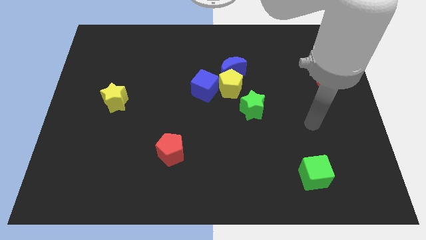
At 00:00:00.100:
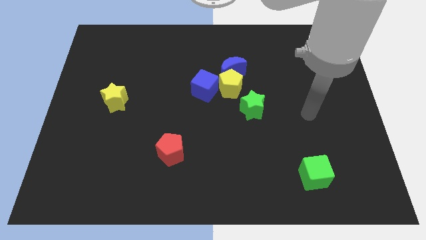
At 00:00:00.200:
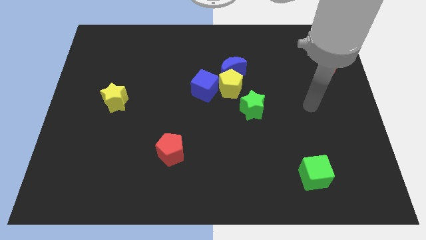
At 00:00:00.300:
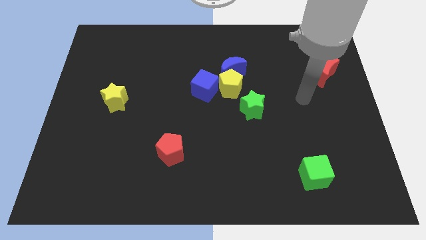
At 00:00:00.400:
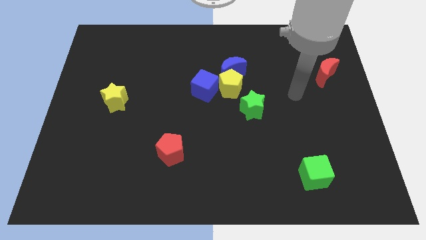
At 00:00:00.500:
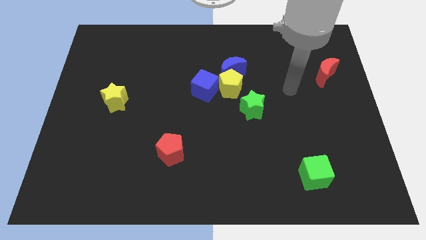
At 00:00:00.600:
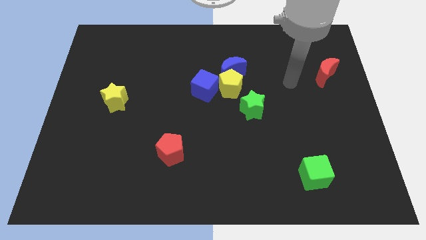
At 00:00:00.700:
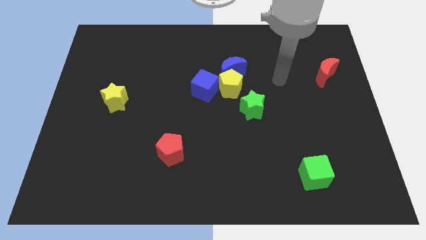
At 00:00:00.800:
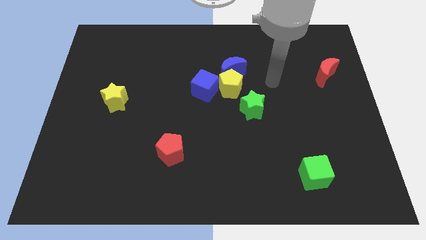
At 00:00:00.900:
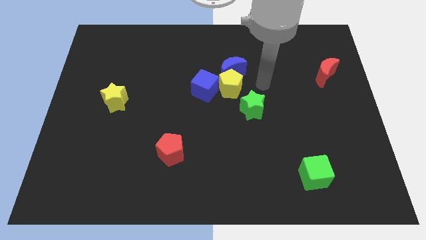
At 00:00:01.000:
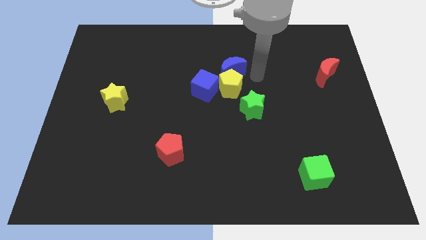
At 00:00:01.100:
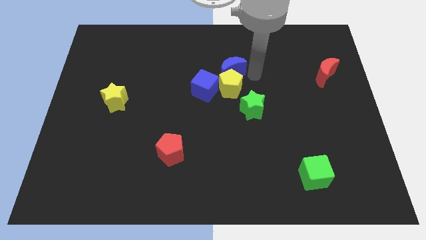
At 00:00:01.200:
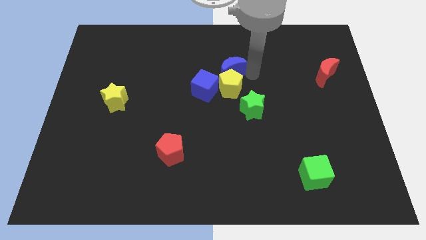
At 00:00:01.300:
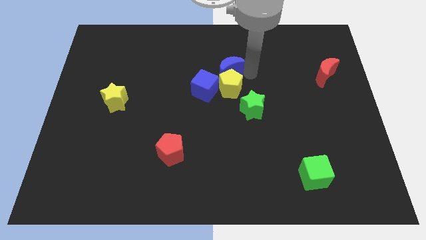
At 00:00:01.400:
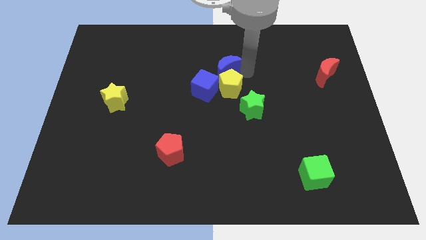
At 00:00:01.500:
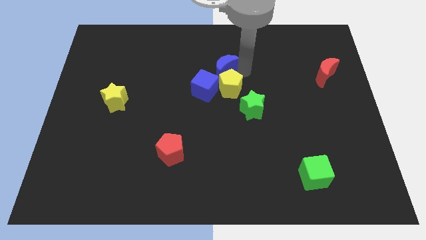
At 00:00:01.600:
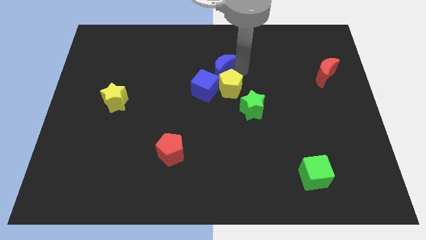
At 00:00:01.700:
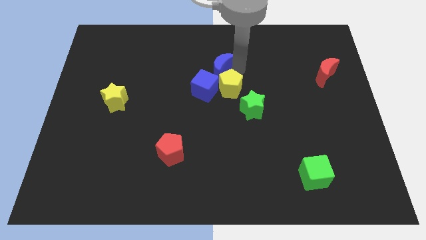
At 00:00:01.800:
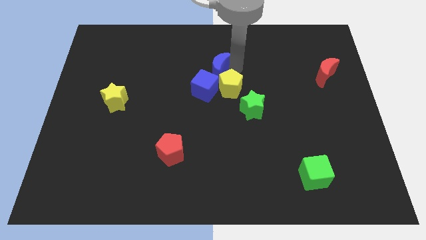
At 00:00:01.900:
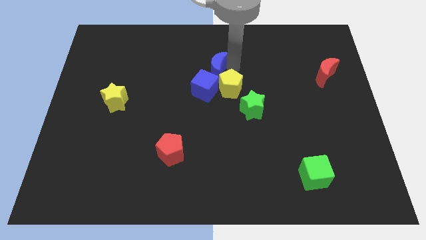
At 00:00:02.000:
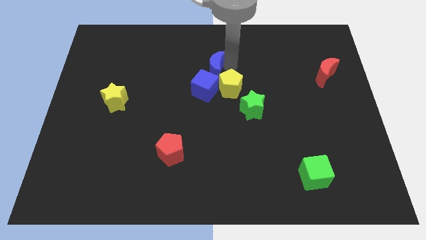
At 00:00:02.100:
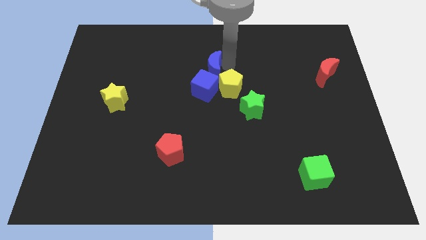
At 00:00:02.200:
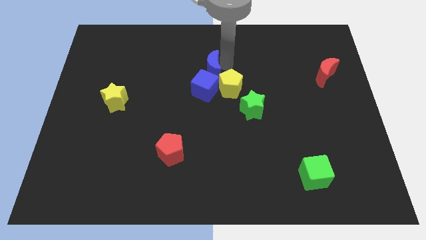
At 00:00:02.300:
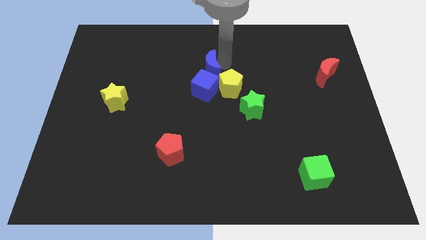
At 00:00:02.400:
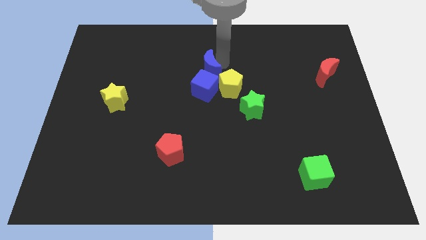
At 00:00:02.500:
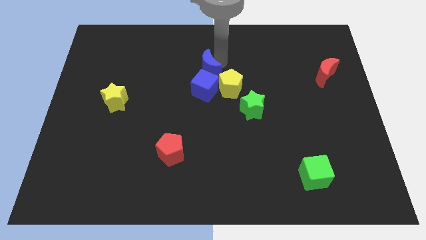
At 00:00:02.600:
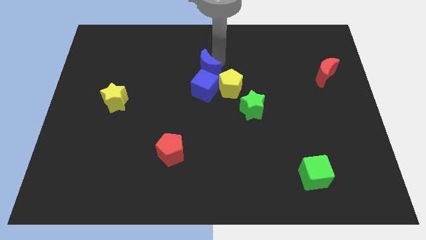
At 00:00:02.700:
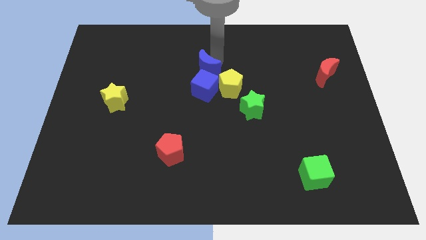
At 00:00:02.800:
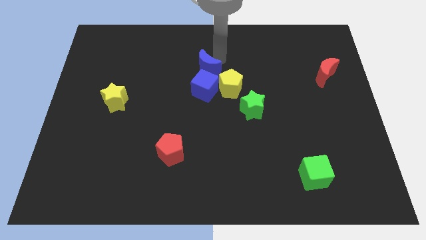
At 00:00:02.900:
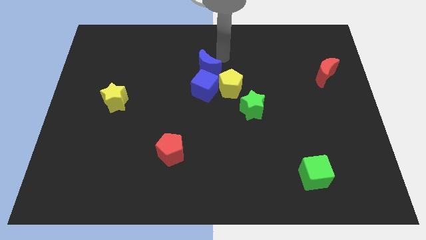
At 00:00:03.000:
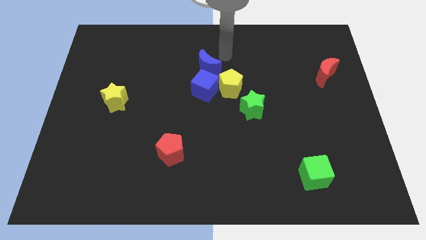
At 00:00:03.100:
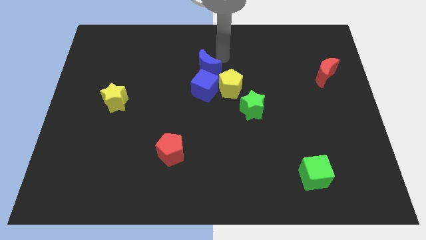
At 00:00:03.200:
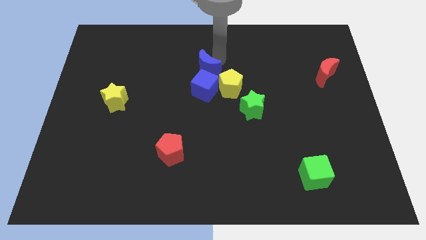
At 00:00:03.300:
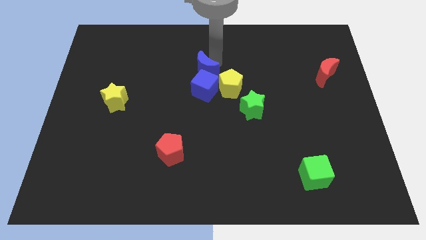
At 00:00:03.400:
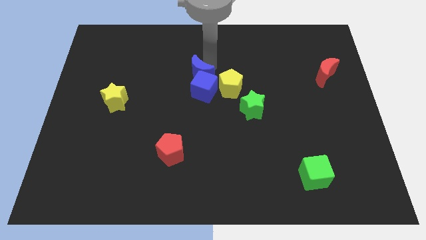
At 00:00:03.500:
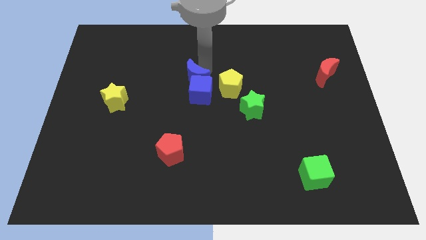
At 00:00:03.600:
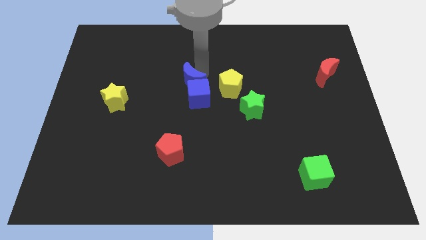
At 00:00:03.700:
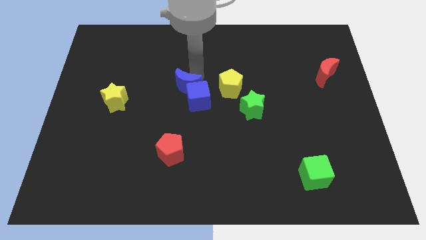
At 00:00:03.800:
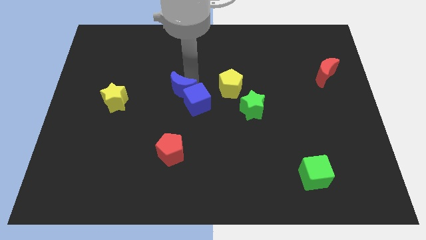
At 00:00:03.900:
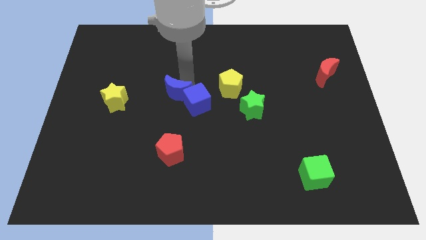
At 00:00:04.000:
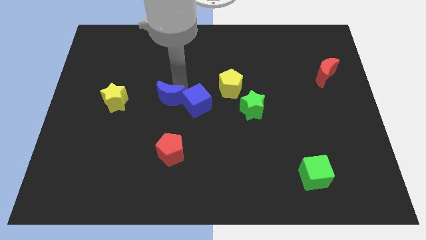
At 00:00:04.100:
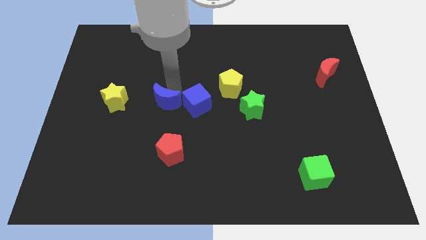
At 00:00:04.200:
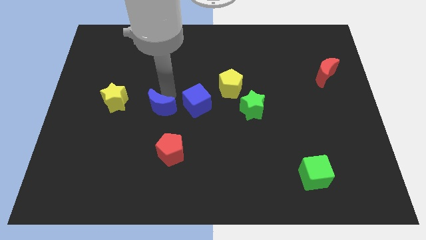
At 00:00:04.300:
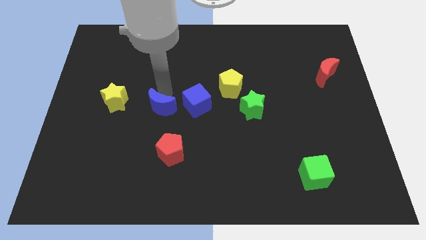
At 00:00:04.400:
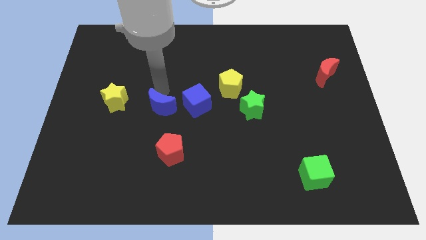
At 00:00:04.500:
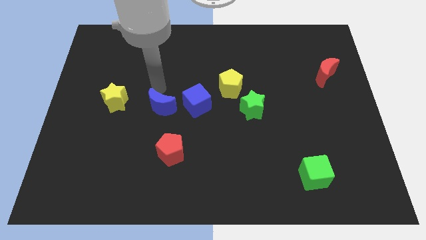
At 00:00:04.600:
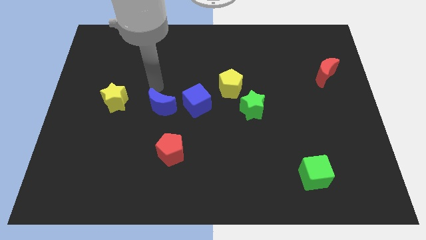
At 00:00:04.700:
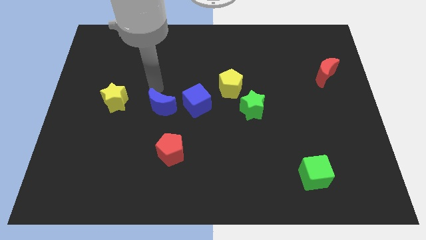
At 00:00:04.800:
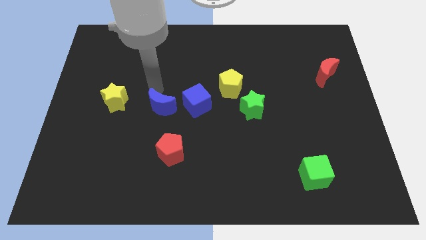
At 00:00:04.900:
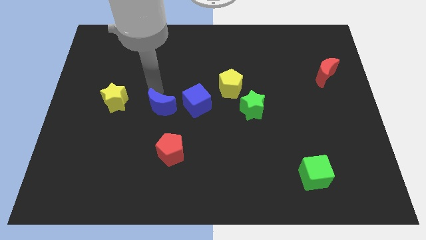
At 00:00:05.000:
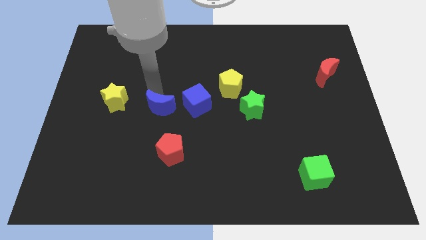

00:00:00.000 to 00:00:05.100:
move the blue moon down and left diagonally

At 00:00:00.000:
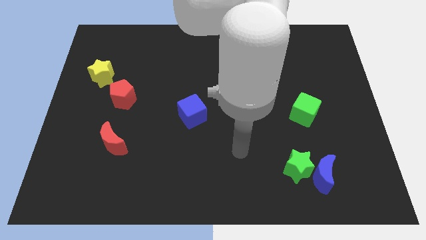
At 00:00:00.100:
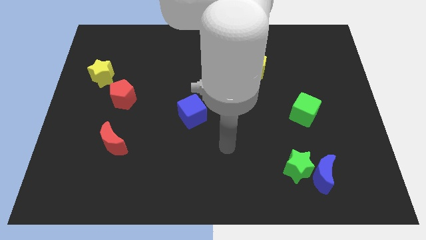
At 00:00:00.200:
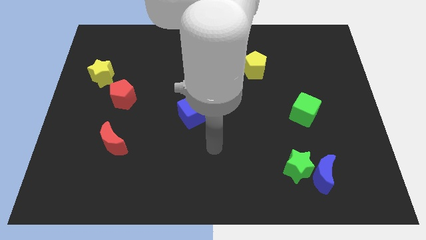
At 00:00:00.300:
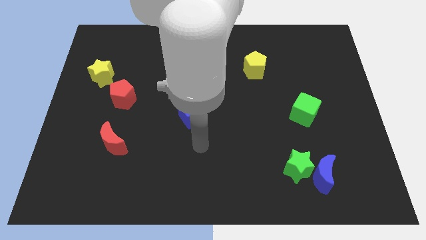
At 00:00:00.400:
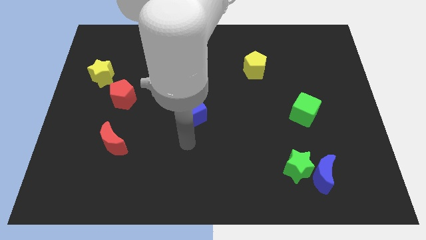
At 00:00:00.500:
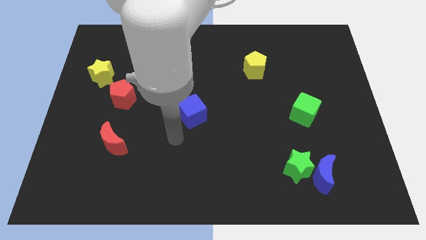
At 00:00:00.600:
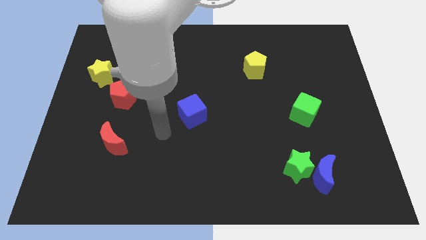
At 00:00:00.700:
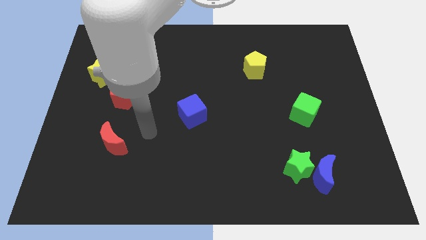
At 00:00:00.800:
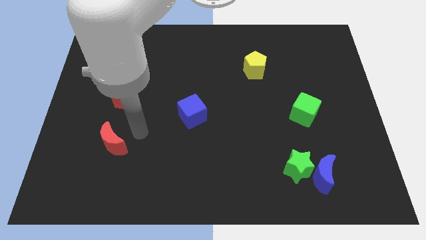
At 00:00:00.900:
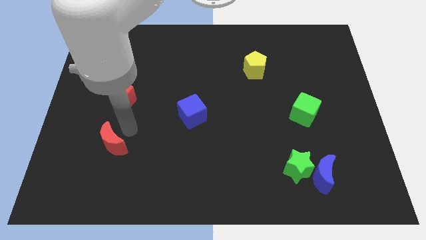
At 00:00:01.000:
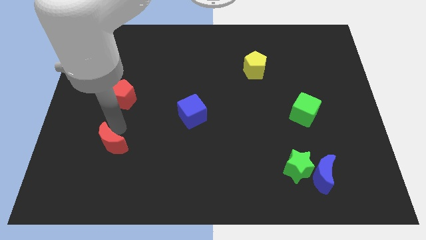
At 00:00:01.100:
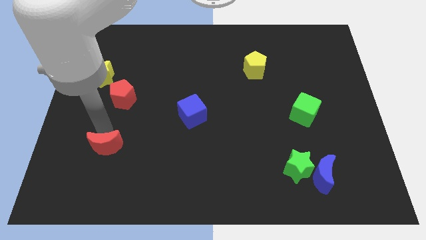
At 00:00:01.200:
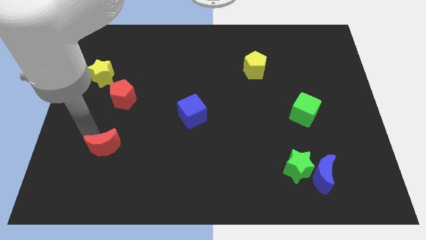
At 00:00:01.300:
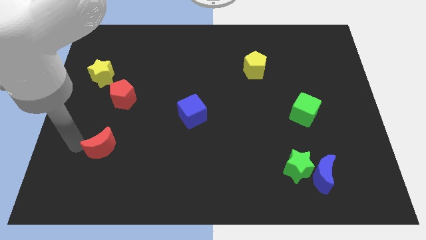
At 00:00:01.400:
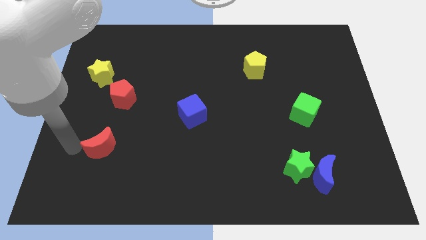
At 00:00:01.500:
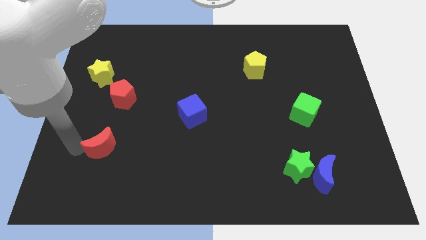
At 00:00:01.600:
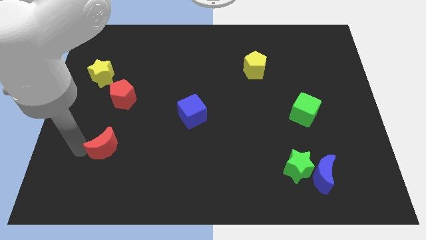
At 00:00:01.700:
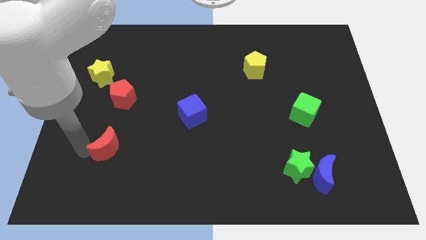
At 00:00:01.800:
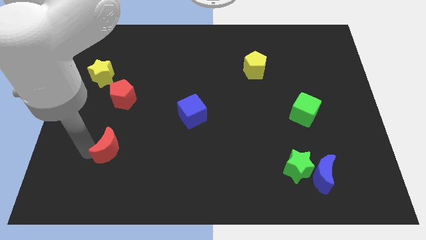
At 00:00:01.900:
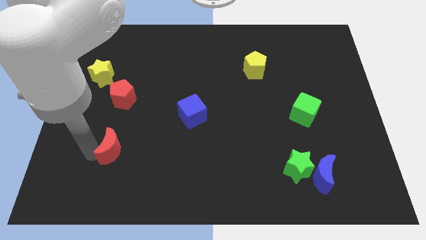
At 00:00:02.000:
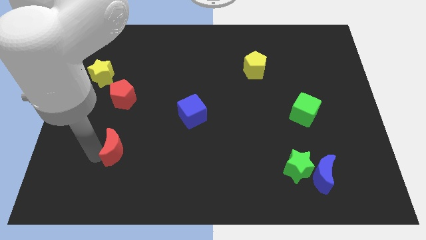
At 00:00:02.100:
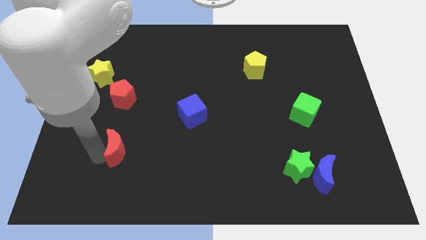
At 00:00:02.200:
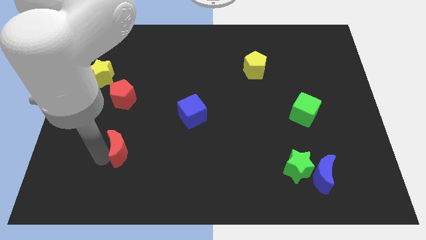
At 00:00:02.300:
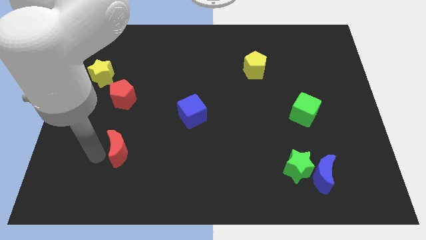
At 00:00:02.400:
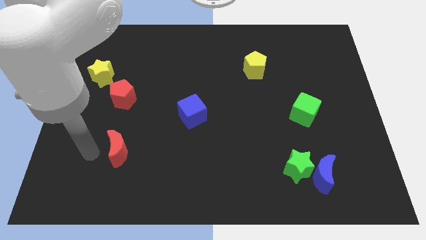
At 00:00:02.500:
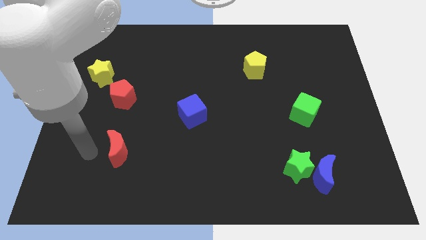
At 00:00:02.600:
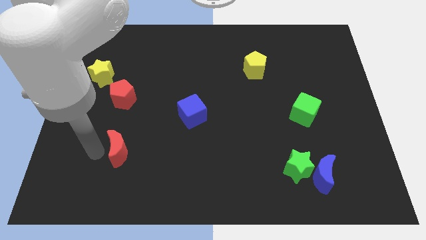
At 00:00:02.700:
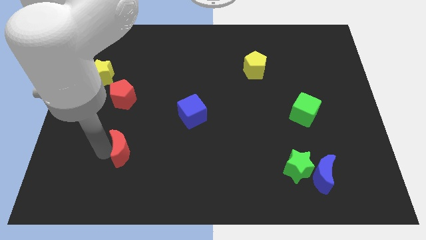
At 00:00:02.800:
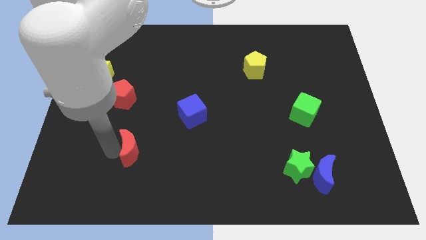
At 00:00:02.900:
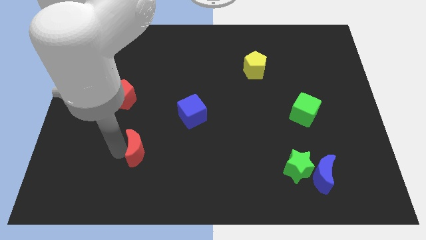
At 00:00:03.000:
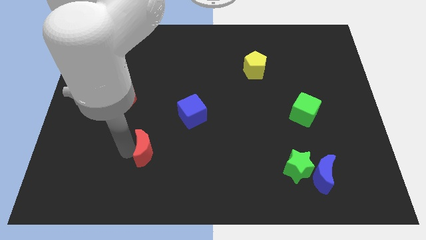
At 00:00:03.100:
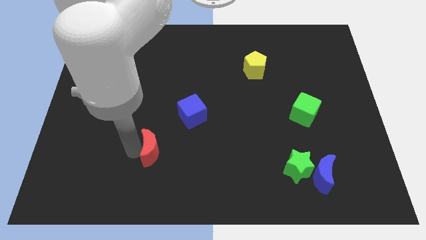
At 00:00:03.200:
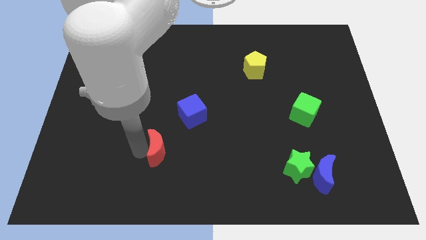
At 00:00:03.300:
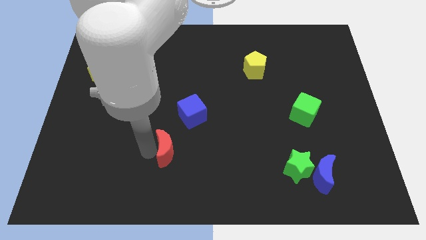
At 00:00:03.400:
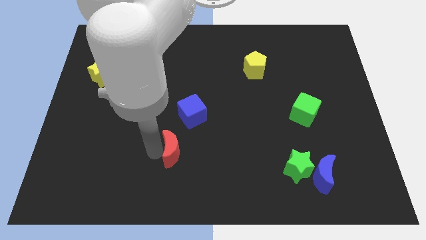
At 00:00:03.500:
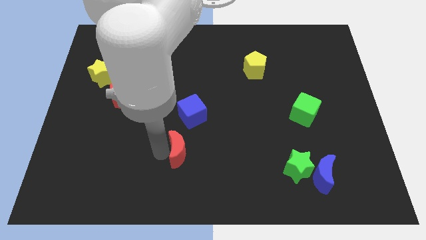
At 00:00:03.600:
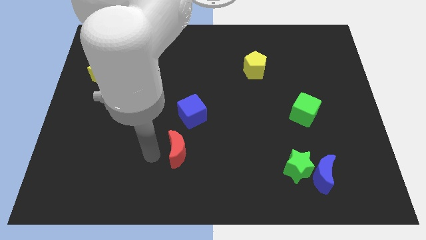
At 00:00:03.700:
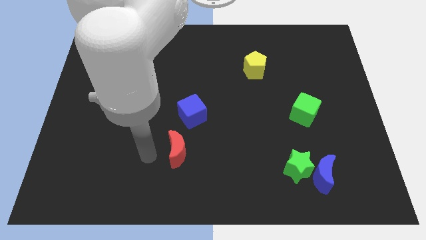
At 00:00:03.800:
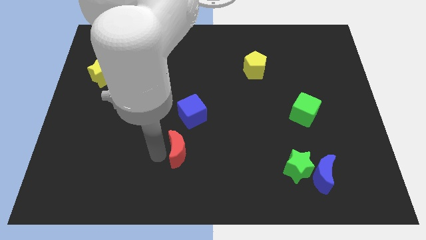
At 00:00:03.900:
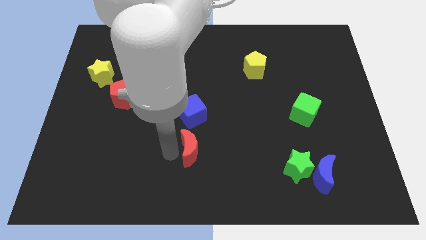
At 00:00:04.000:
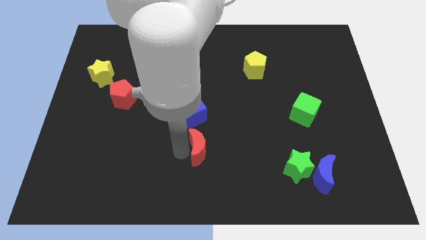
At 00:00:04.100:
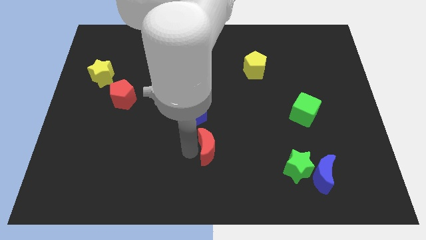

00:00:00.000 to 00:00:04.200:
move the red moon to the right
